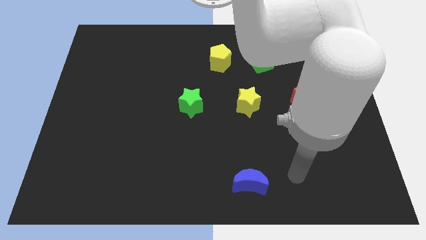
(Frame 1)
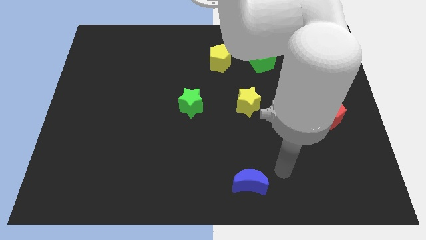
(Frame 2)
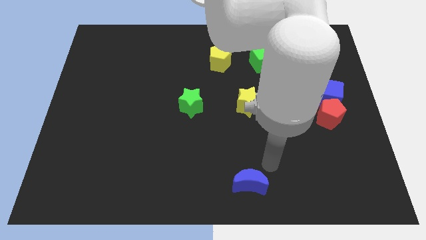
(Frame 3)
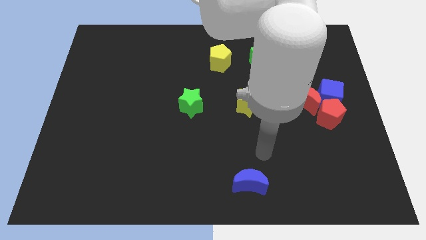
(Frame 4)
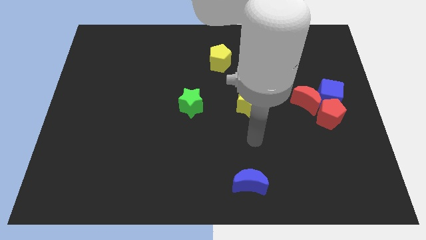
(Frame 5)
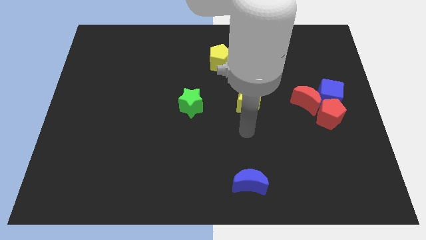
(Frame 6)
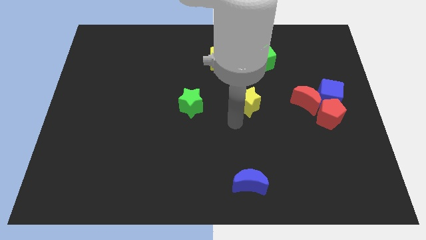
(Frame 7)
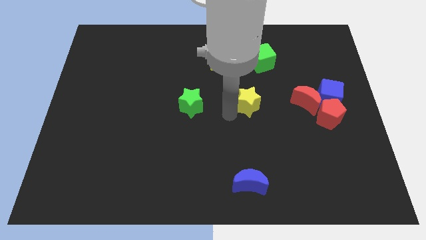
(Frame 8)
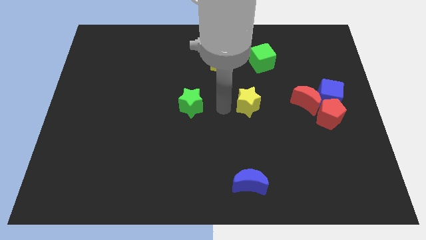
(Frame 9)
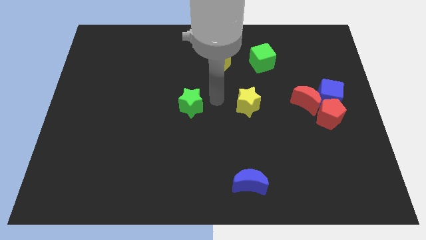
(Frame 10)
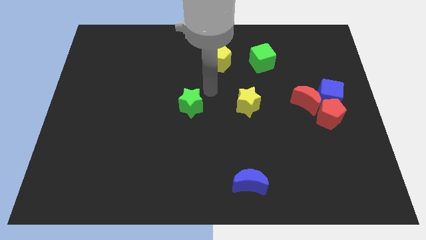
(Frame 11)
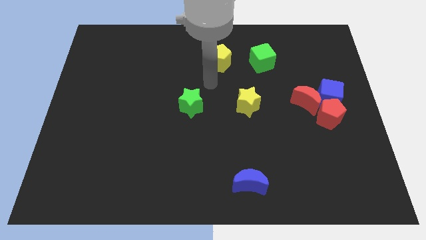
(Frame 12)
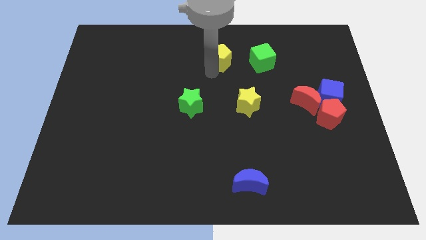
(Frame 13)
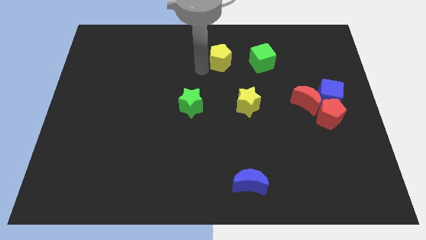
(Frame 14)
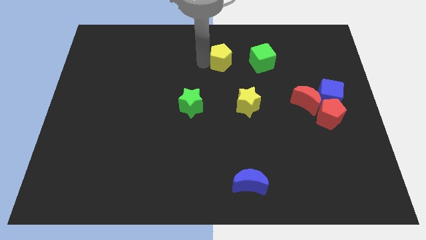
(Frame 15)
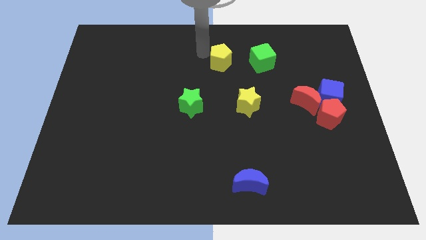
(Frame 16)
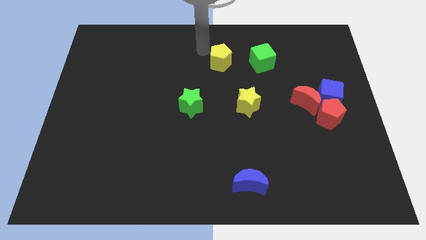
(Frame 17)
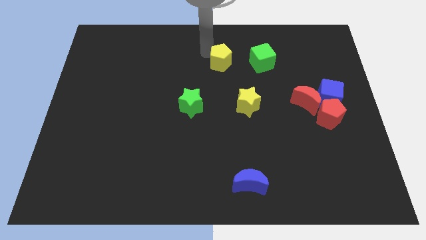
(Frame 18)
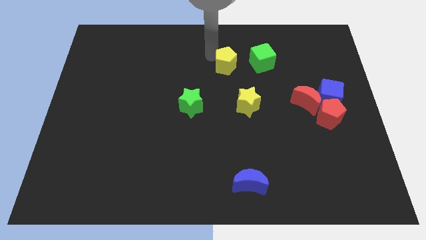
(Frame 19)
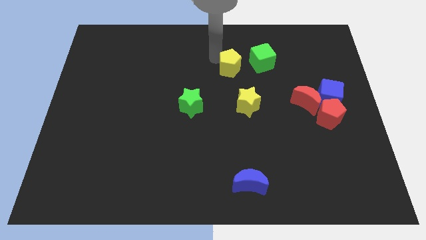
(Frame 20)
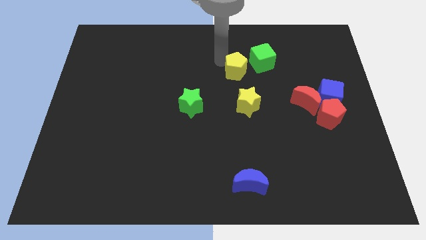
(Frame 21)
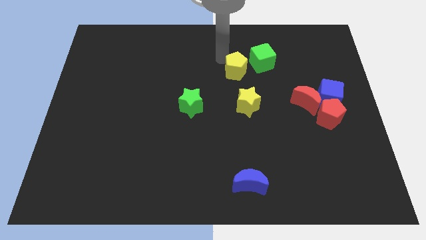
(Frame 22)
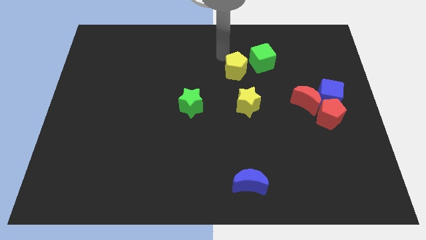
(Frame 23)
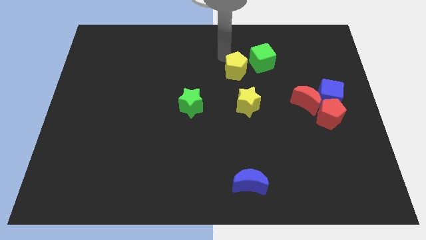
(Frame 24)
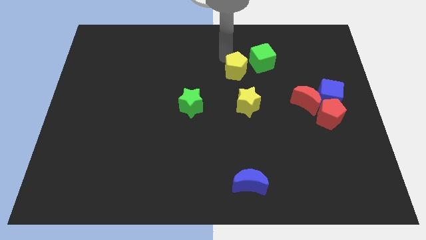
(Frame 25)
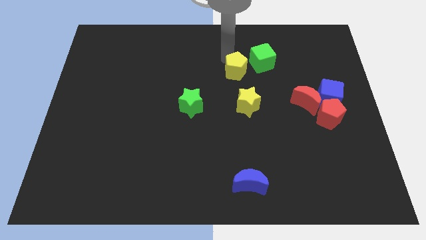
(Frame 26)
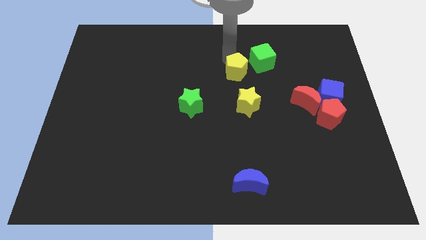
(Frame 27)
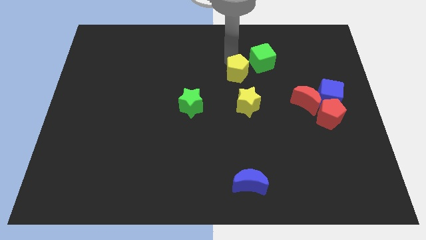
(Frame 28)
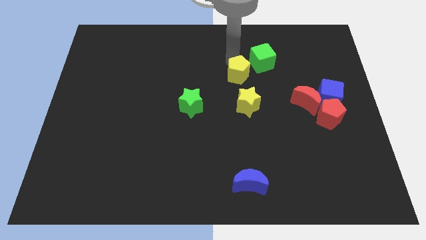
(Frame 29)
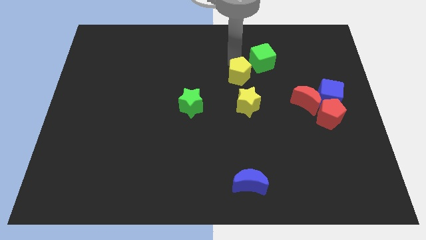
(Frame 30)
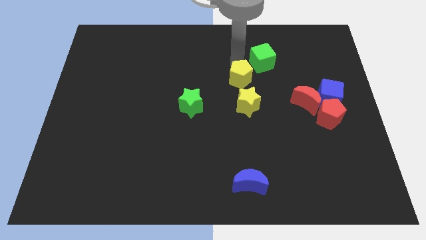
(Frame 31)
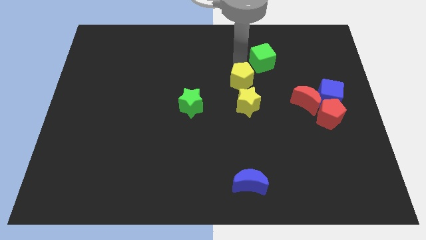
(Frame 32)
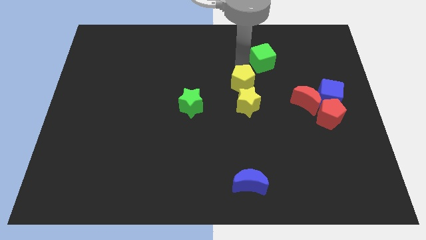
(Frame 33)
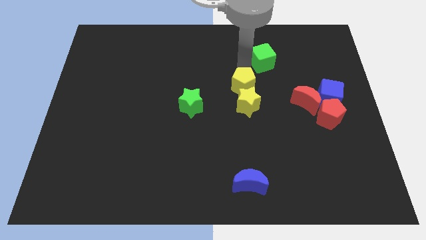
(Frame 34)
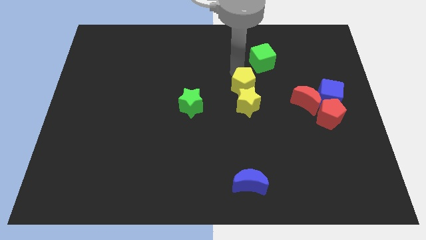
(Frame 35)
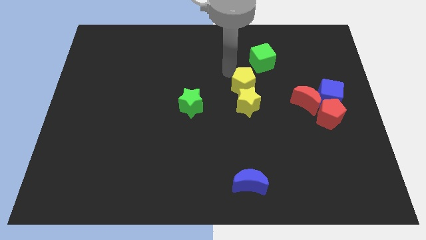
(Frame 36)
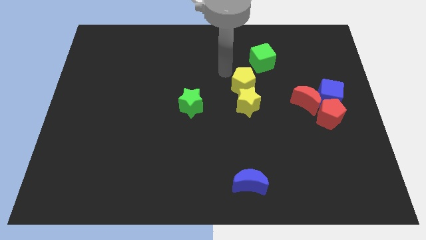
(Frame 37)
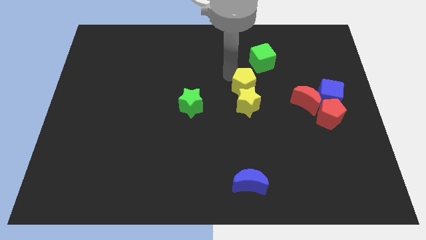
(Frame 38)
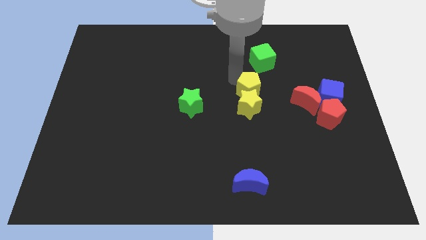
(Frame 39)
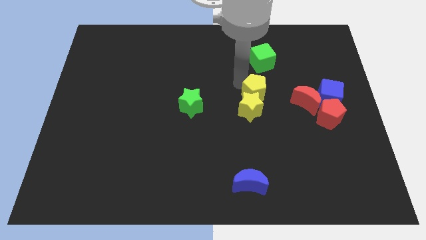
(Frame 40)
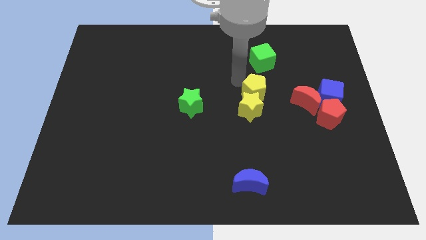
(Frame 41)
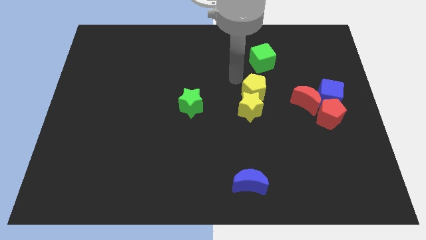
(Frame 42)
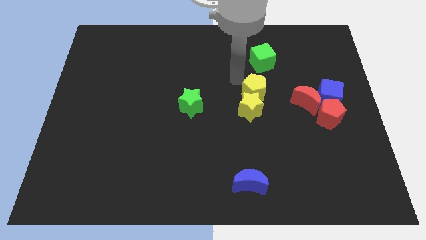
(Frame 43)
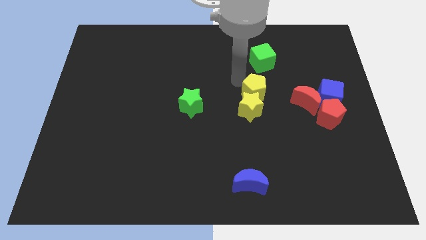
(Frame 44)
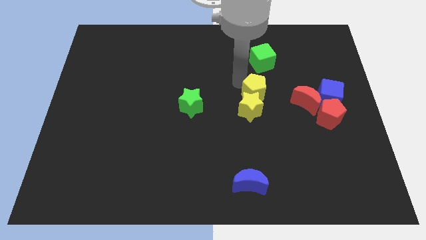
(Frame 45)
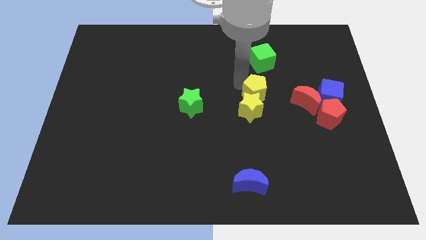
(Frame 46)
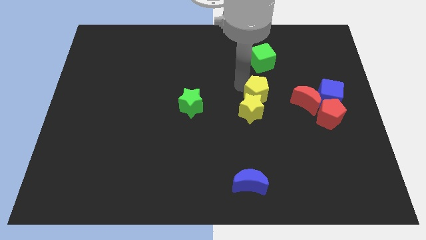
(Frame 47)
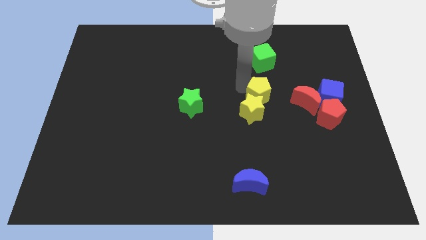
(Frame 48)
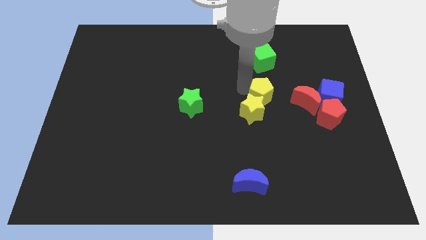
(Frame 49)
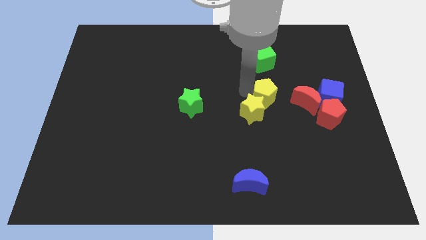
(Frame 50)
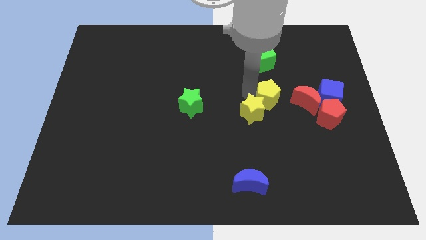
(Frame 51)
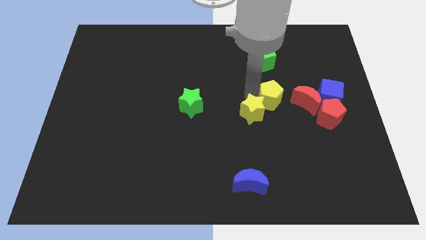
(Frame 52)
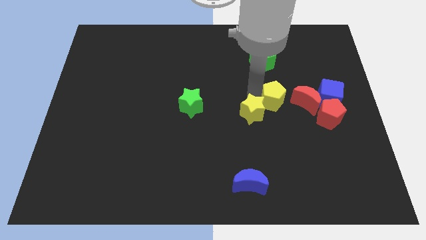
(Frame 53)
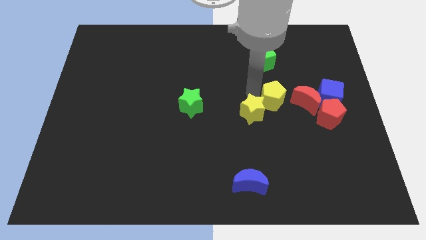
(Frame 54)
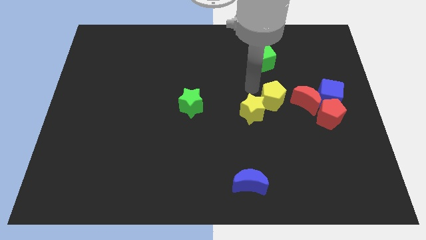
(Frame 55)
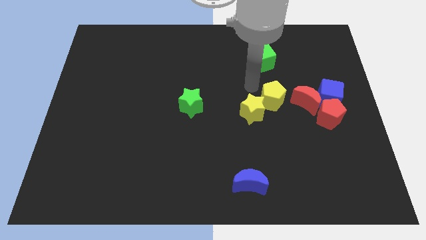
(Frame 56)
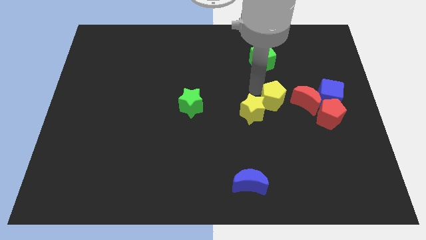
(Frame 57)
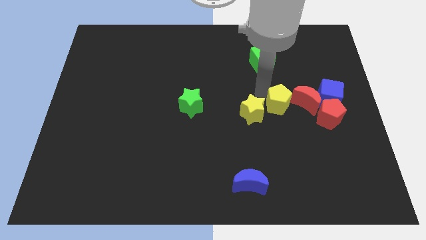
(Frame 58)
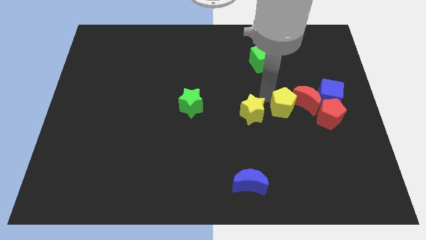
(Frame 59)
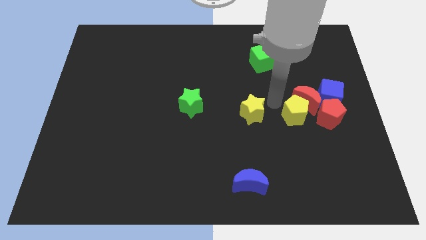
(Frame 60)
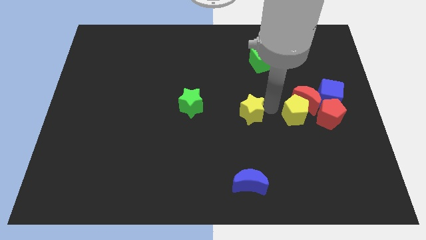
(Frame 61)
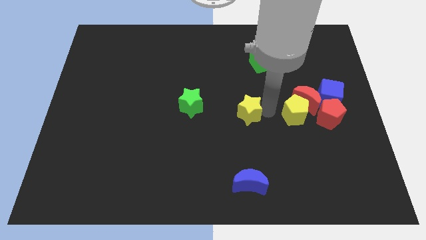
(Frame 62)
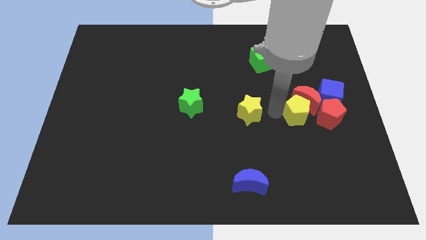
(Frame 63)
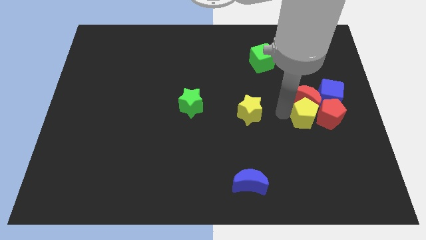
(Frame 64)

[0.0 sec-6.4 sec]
push the yellow pentagon close to the red pentagon

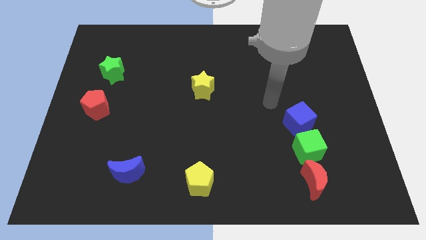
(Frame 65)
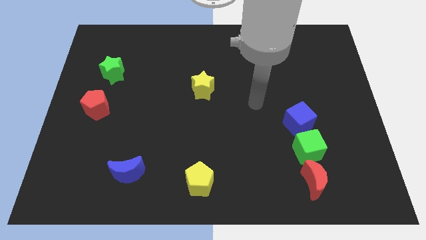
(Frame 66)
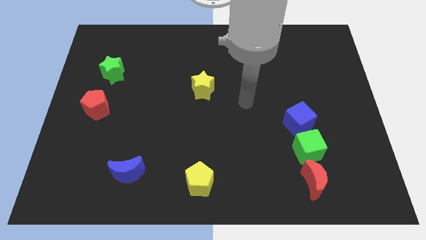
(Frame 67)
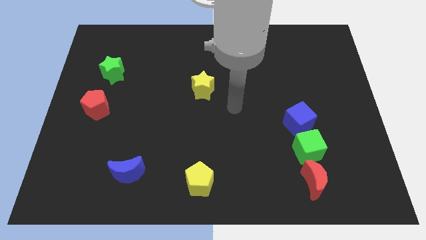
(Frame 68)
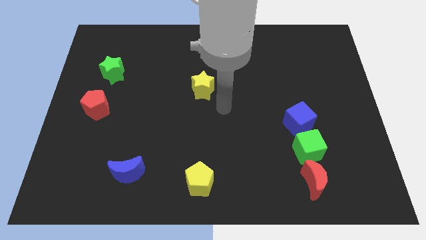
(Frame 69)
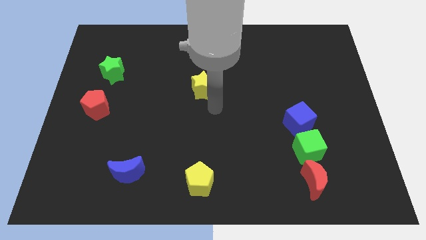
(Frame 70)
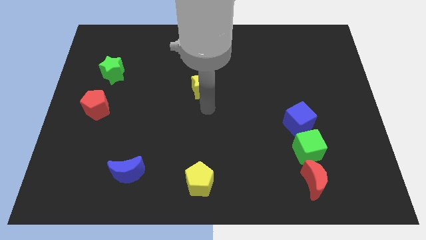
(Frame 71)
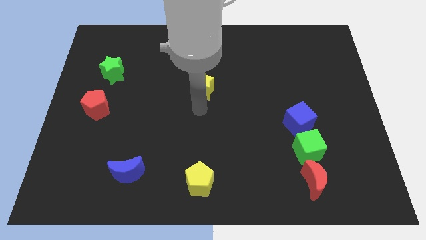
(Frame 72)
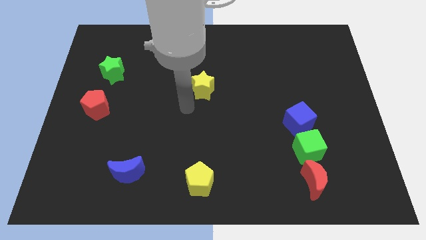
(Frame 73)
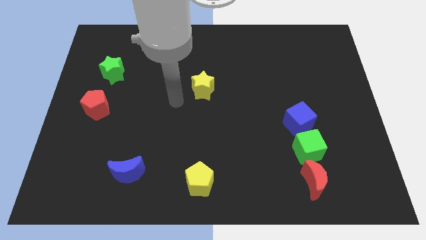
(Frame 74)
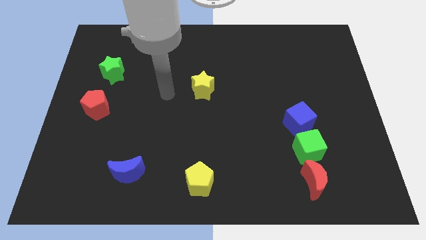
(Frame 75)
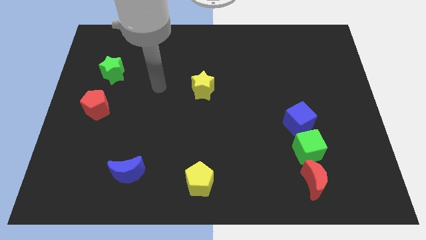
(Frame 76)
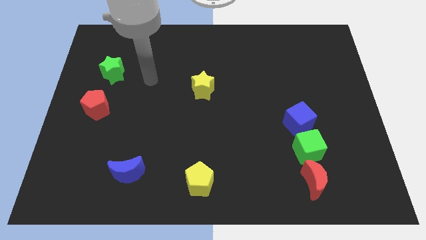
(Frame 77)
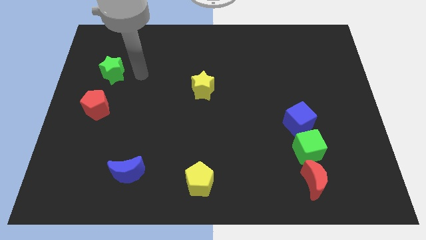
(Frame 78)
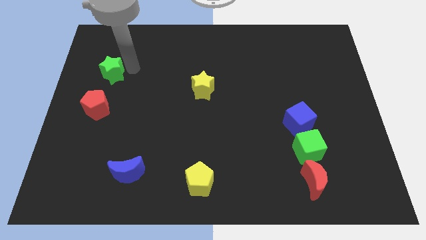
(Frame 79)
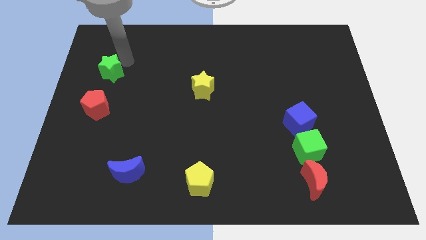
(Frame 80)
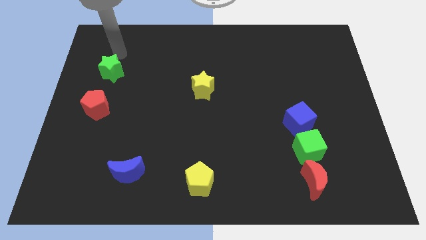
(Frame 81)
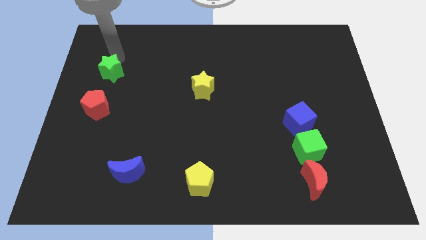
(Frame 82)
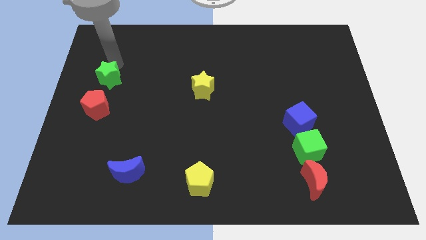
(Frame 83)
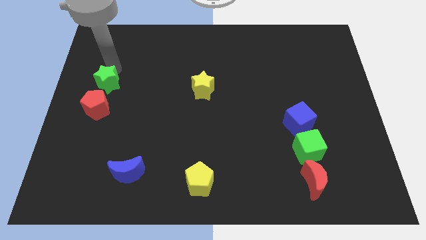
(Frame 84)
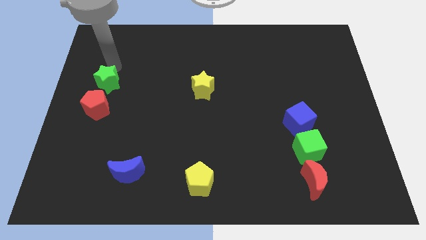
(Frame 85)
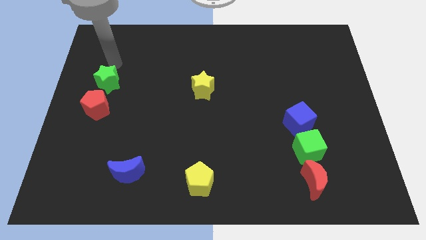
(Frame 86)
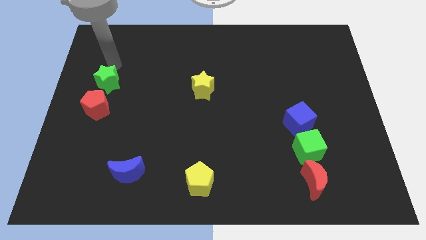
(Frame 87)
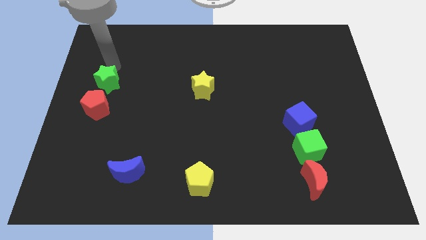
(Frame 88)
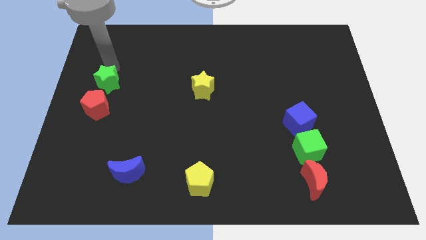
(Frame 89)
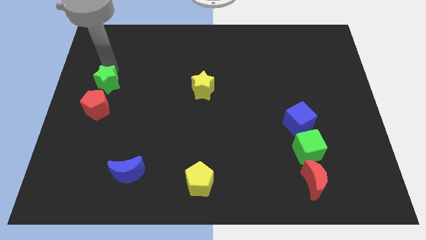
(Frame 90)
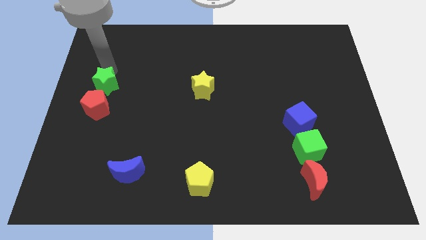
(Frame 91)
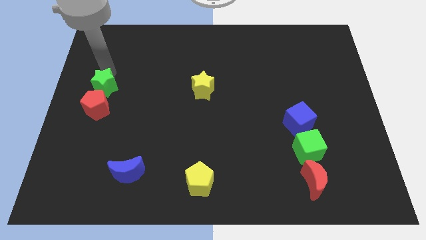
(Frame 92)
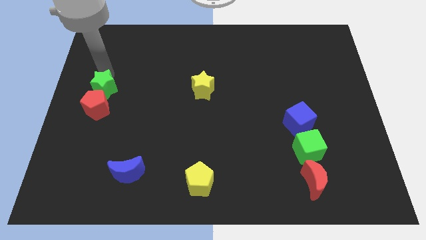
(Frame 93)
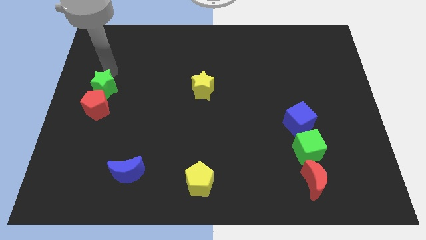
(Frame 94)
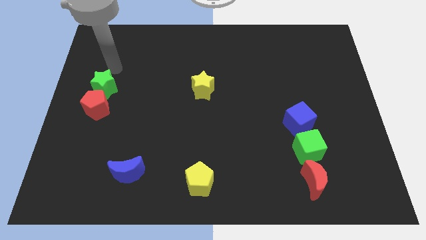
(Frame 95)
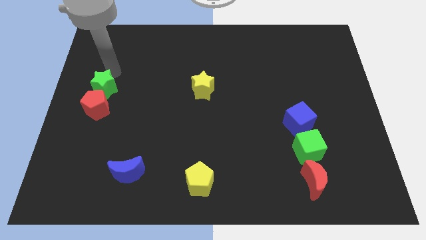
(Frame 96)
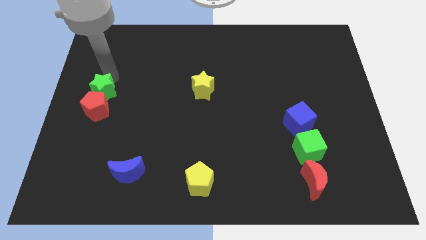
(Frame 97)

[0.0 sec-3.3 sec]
slide the green star close to the red pentagon
